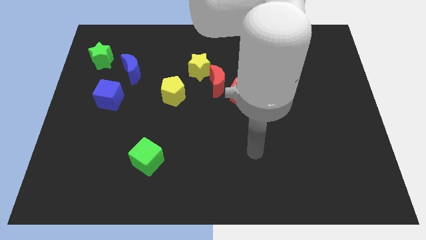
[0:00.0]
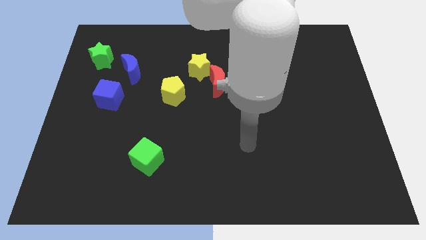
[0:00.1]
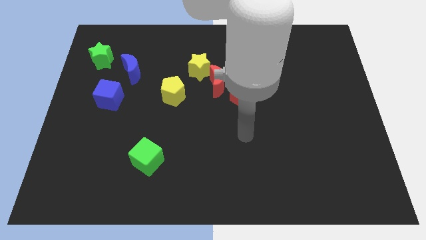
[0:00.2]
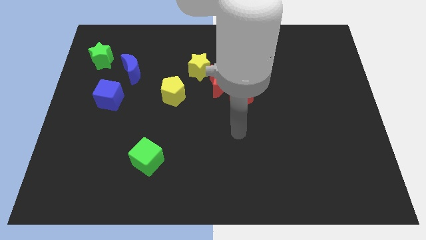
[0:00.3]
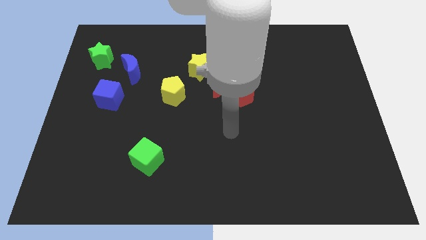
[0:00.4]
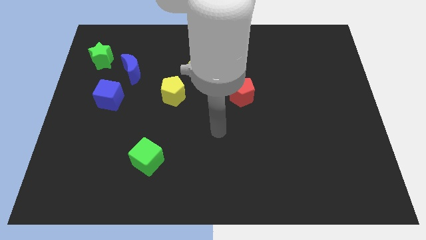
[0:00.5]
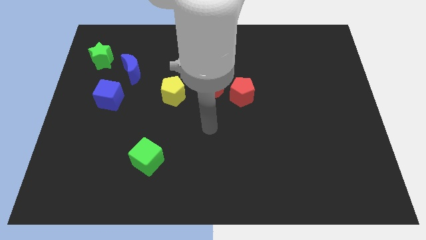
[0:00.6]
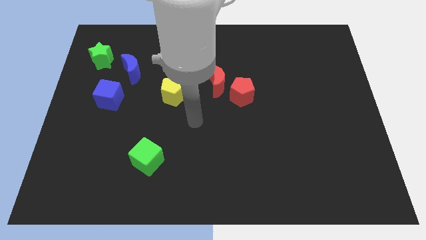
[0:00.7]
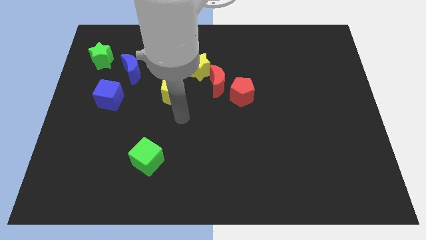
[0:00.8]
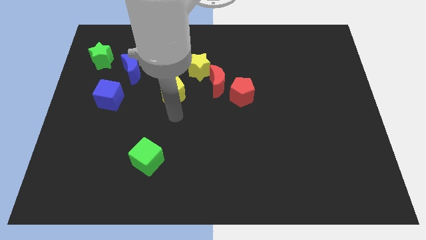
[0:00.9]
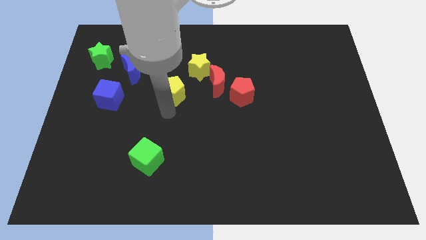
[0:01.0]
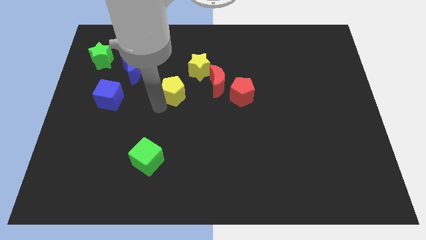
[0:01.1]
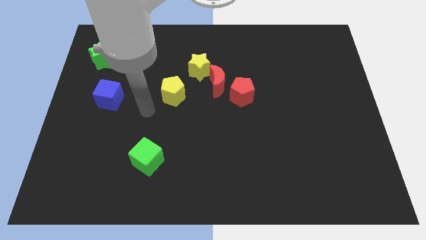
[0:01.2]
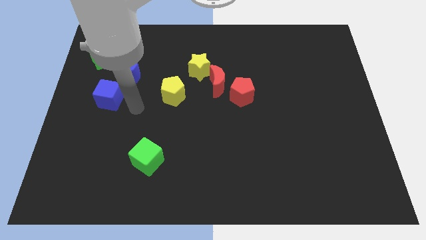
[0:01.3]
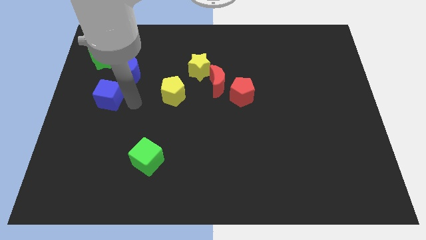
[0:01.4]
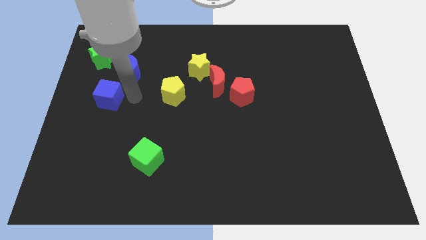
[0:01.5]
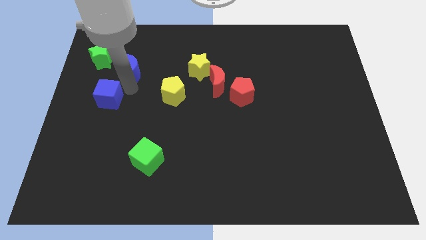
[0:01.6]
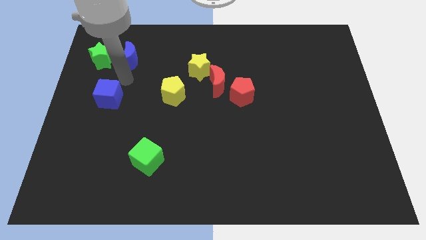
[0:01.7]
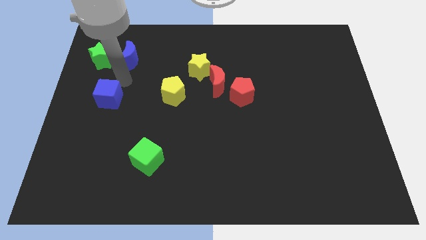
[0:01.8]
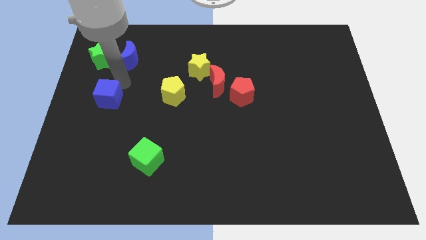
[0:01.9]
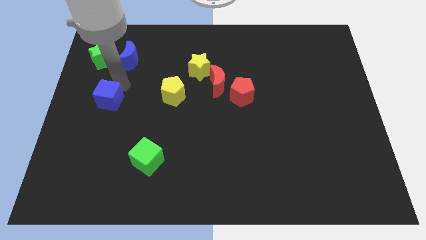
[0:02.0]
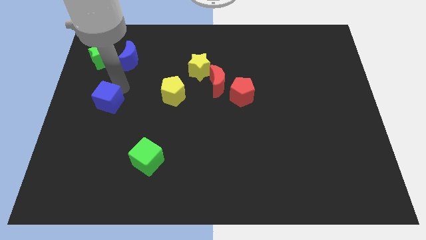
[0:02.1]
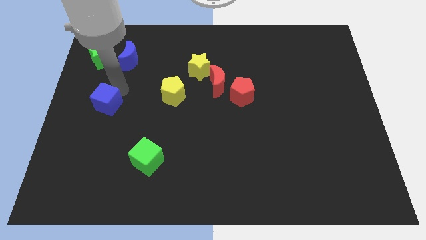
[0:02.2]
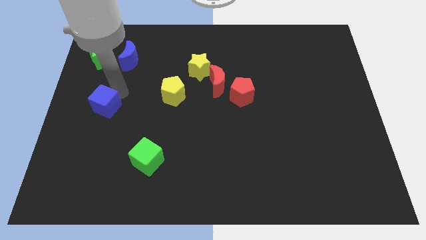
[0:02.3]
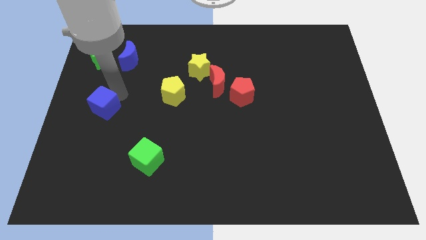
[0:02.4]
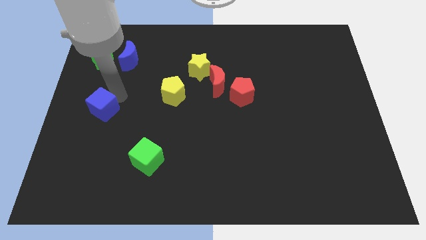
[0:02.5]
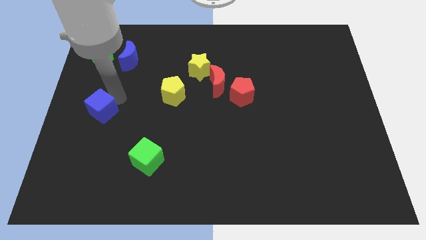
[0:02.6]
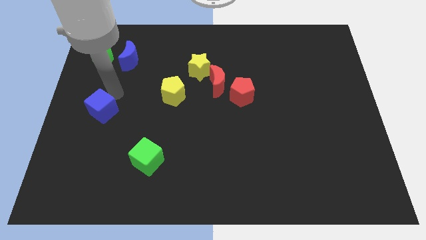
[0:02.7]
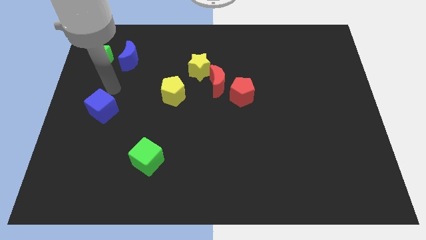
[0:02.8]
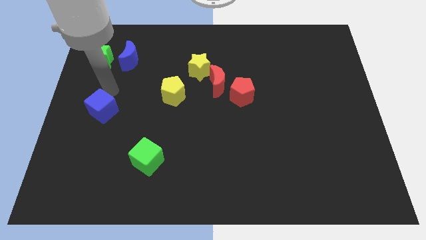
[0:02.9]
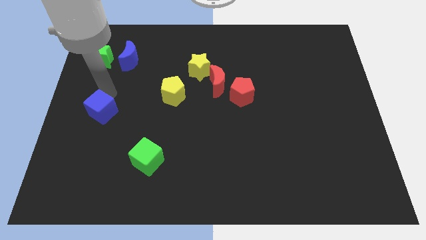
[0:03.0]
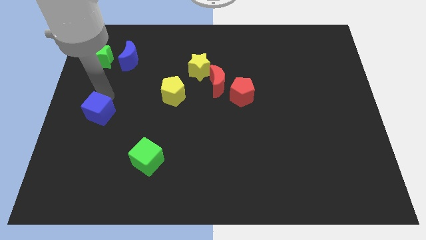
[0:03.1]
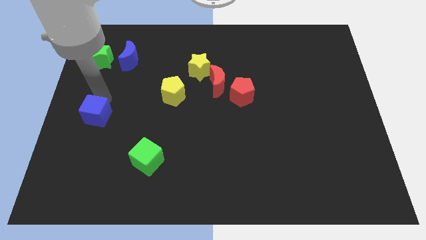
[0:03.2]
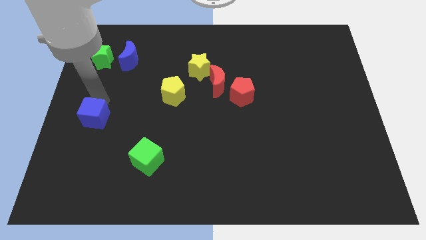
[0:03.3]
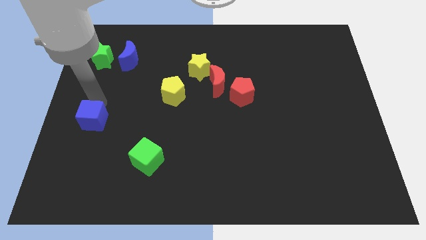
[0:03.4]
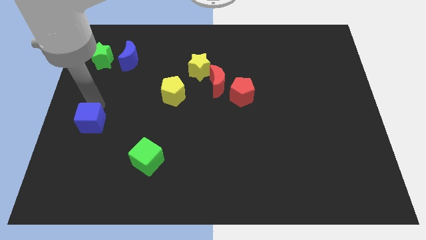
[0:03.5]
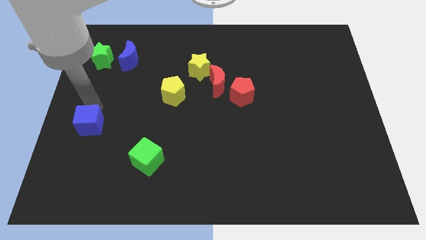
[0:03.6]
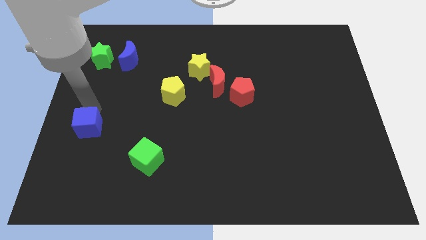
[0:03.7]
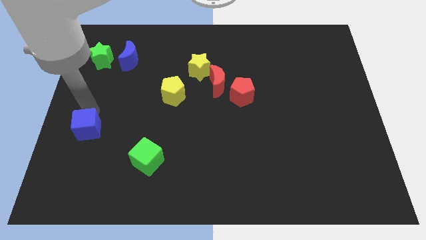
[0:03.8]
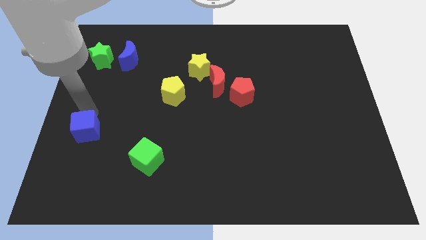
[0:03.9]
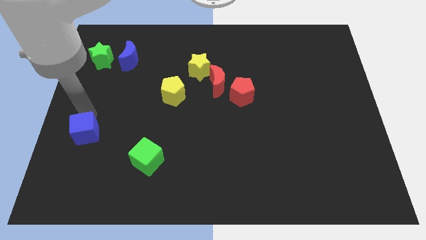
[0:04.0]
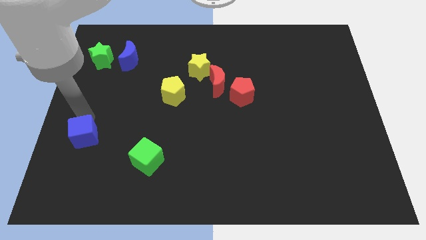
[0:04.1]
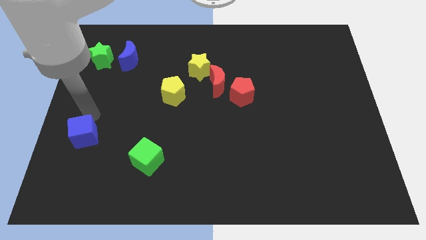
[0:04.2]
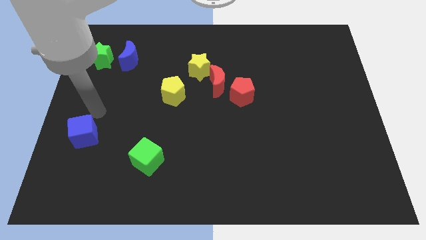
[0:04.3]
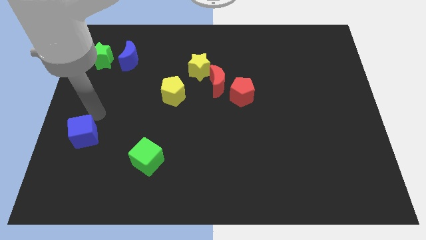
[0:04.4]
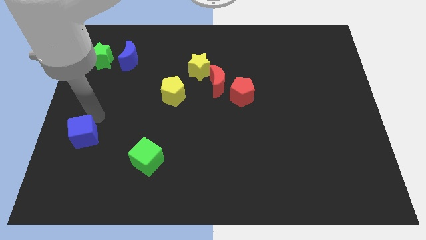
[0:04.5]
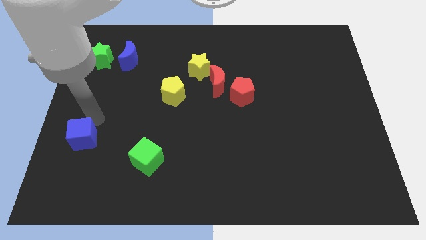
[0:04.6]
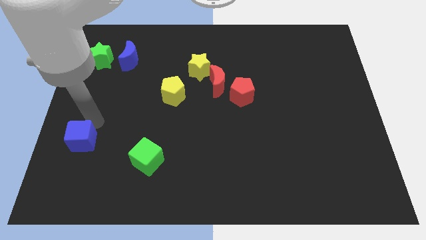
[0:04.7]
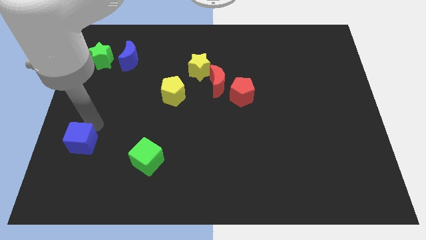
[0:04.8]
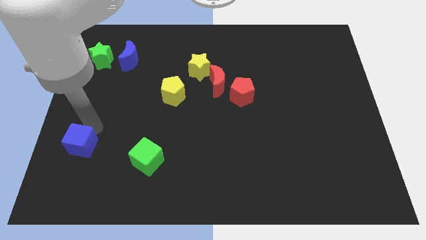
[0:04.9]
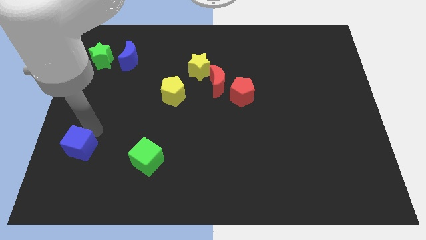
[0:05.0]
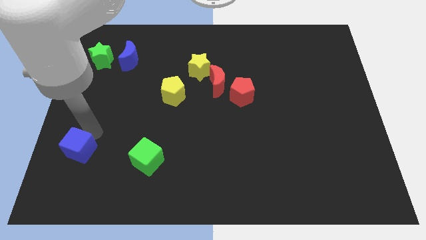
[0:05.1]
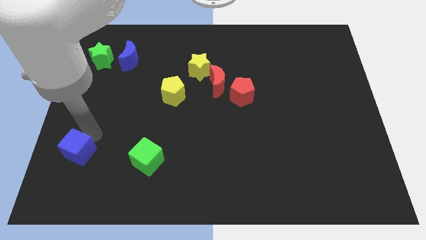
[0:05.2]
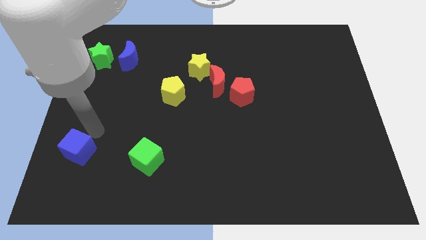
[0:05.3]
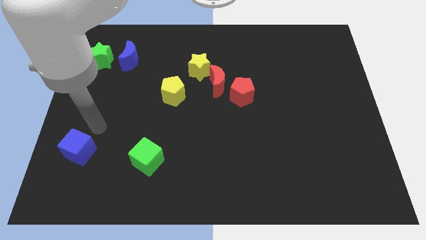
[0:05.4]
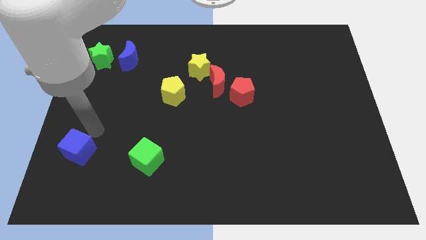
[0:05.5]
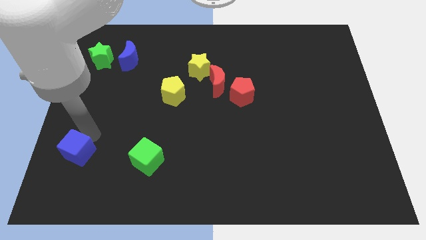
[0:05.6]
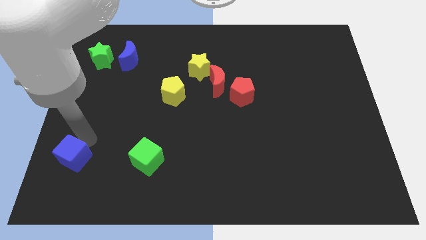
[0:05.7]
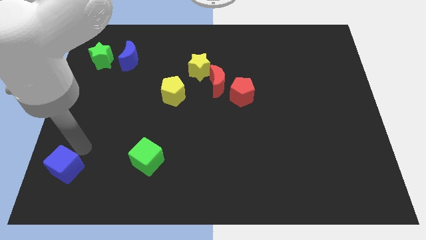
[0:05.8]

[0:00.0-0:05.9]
move the blue cube to the lower left corner
